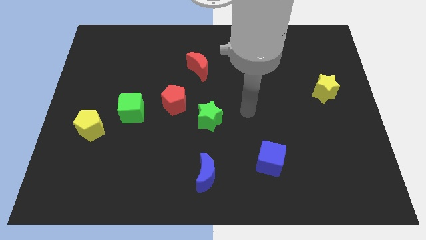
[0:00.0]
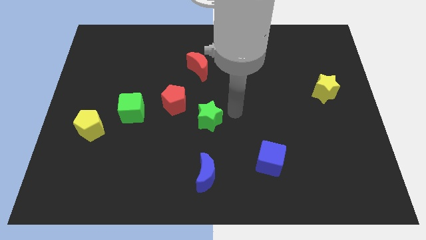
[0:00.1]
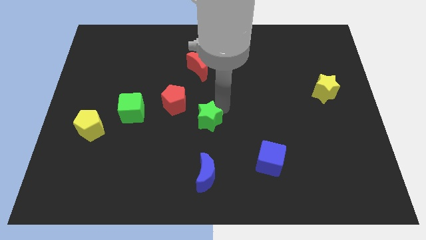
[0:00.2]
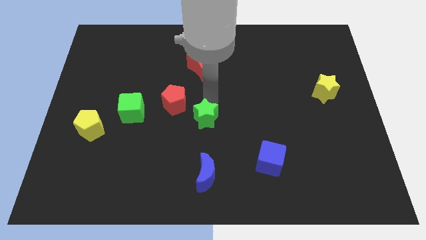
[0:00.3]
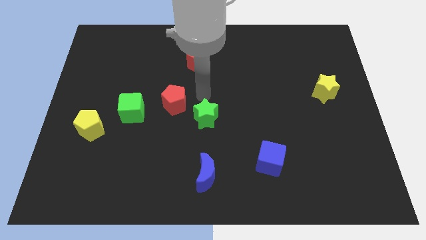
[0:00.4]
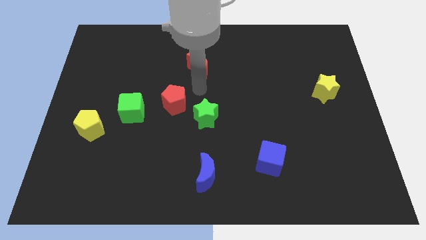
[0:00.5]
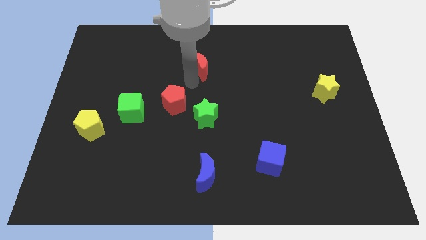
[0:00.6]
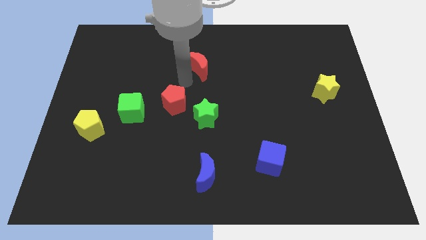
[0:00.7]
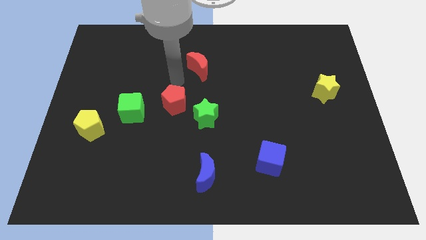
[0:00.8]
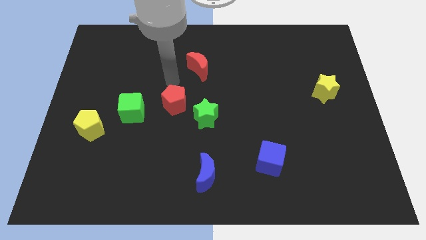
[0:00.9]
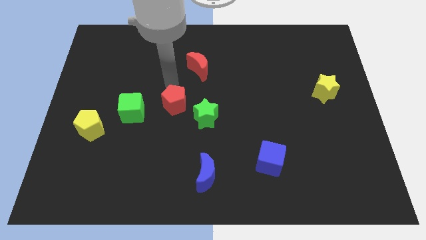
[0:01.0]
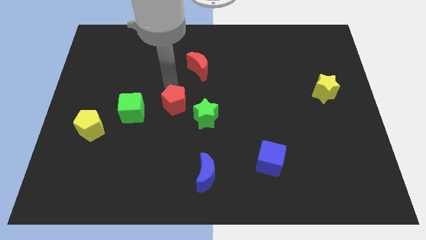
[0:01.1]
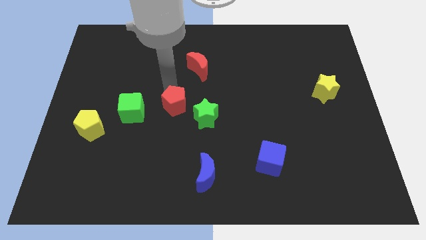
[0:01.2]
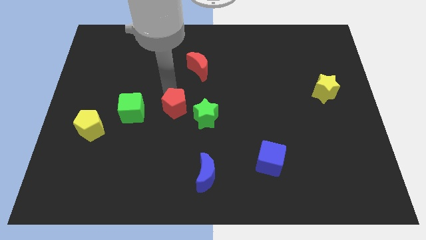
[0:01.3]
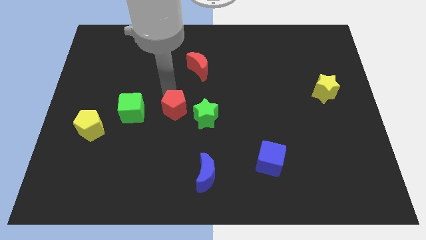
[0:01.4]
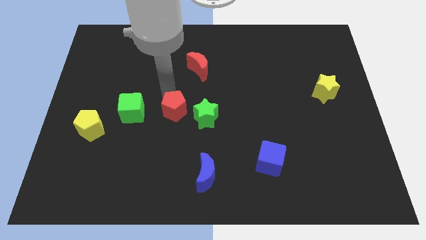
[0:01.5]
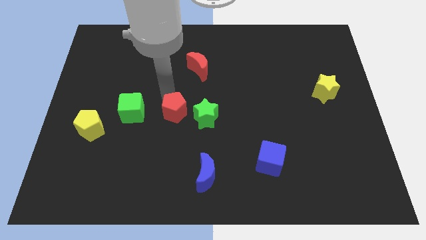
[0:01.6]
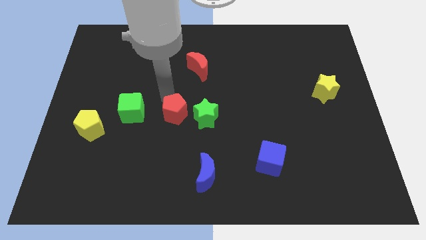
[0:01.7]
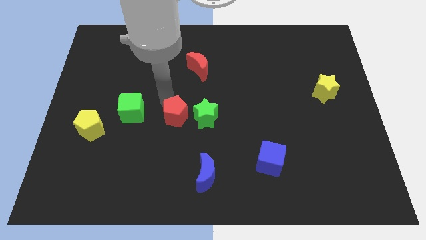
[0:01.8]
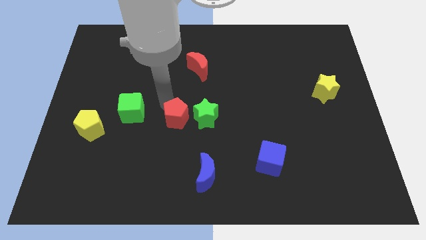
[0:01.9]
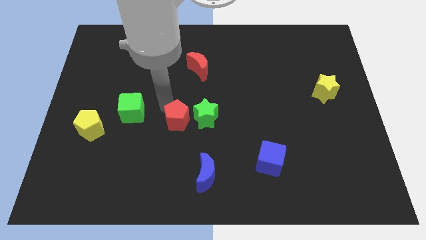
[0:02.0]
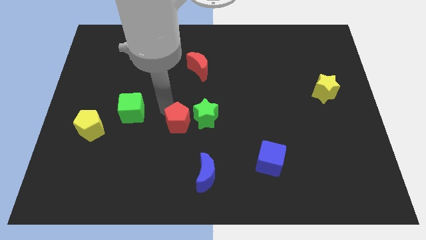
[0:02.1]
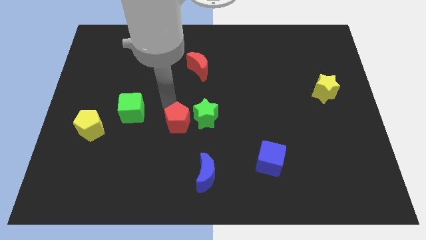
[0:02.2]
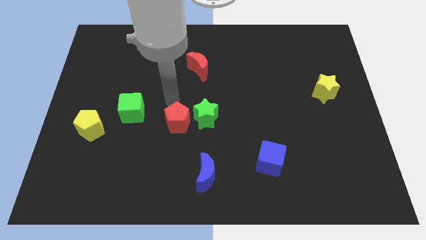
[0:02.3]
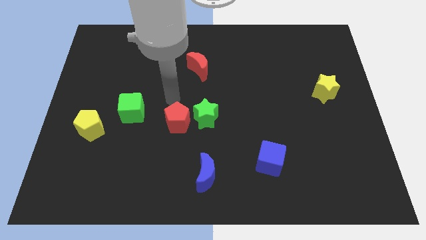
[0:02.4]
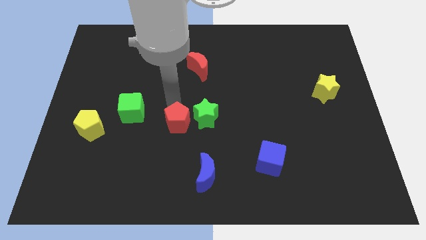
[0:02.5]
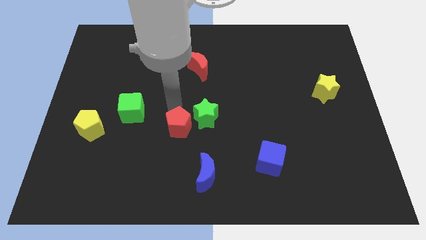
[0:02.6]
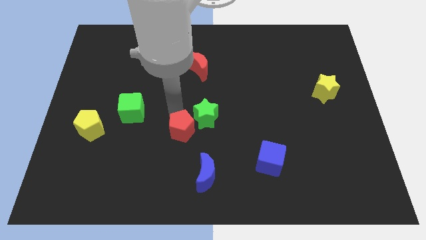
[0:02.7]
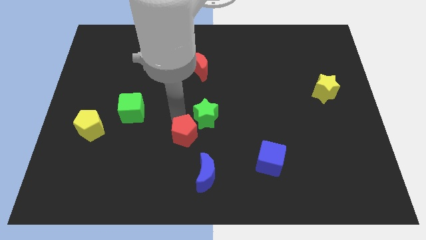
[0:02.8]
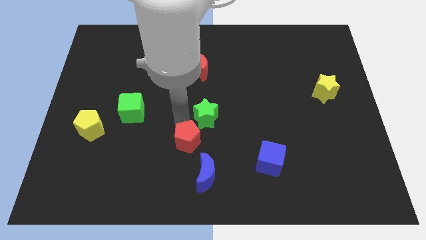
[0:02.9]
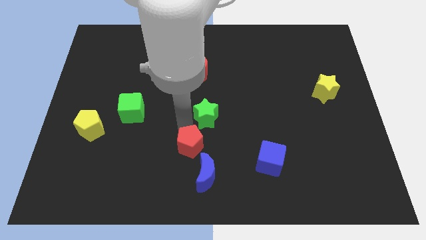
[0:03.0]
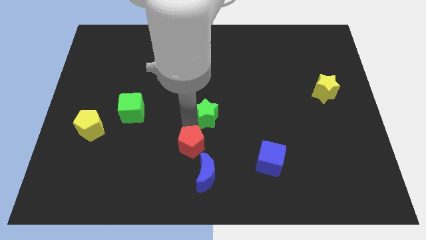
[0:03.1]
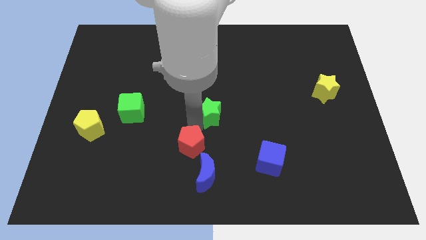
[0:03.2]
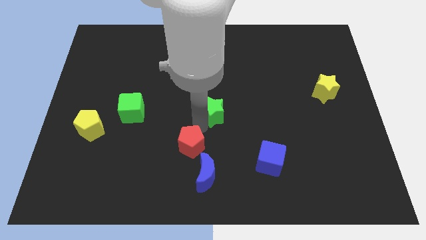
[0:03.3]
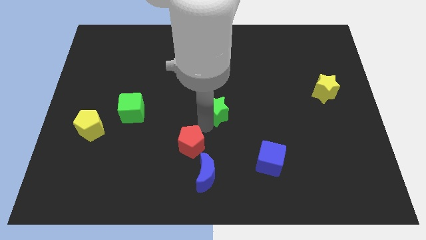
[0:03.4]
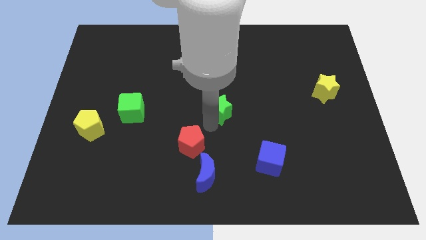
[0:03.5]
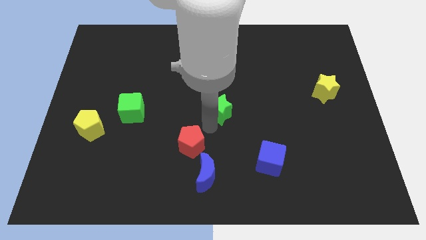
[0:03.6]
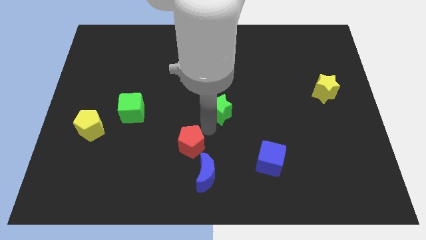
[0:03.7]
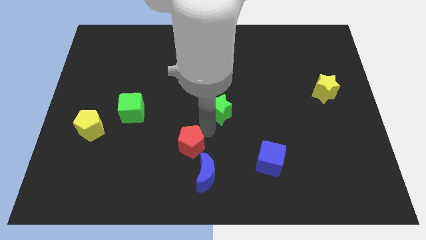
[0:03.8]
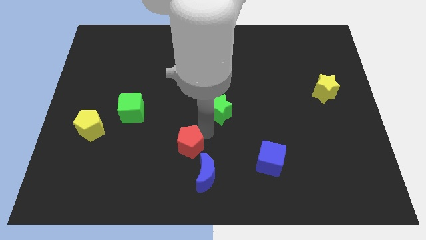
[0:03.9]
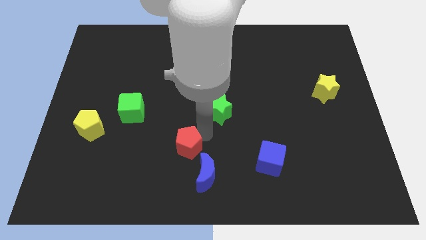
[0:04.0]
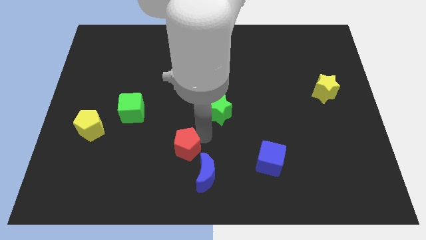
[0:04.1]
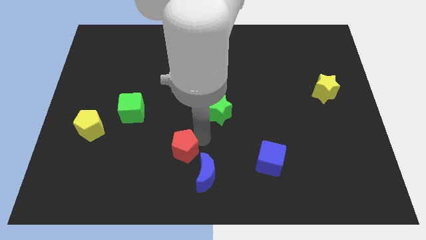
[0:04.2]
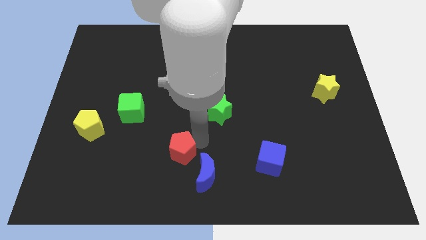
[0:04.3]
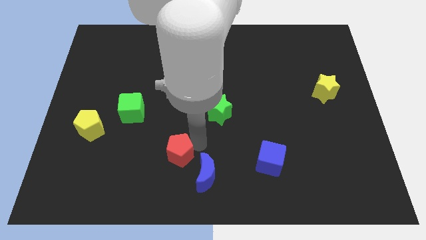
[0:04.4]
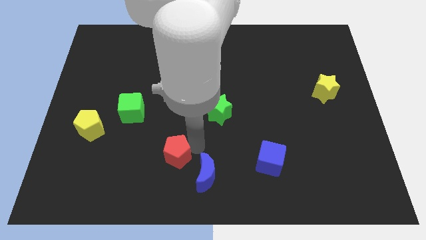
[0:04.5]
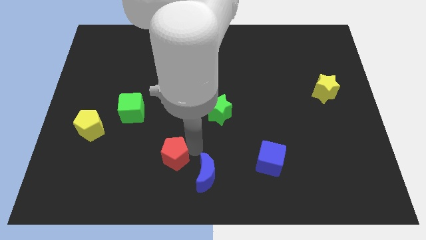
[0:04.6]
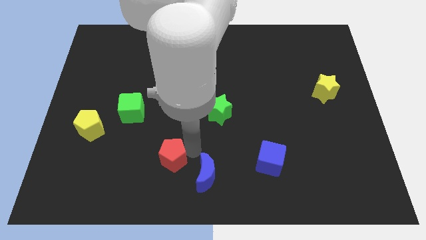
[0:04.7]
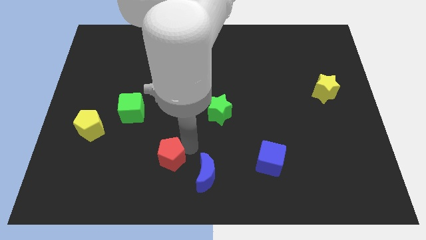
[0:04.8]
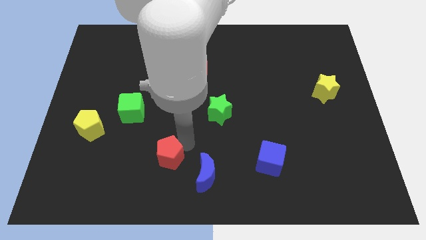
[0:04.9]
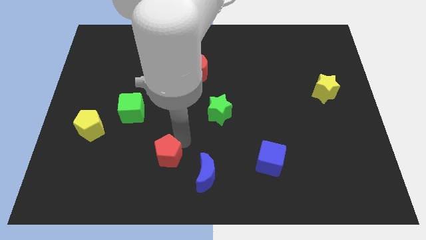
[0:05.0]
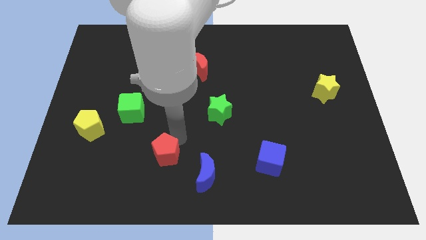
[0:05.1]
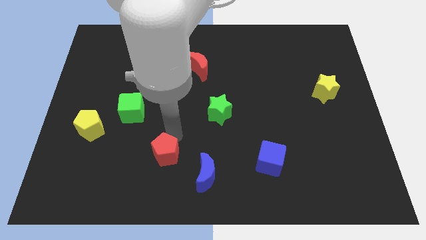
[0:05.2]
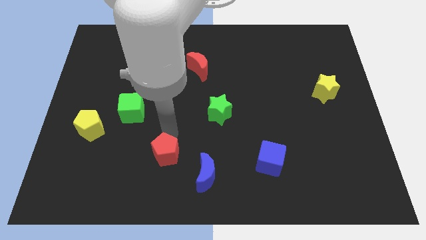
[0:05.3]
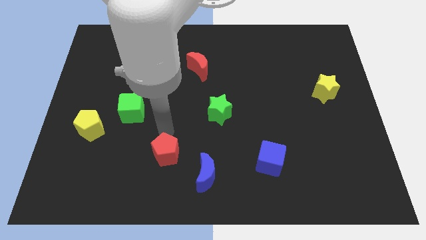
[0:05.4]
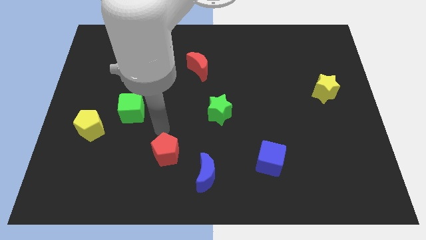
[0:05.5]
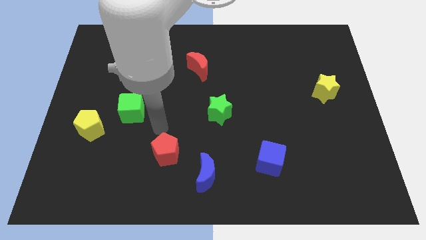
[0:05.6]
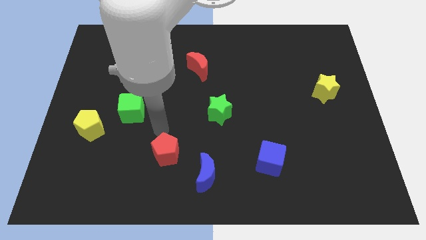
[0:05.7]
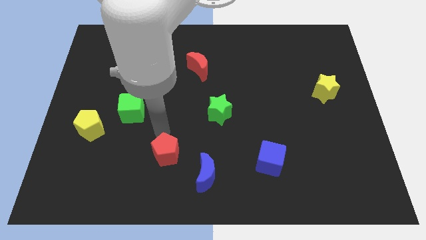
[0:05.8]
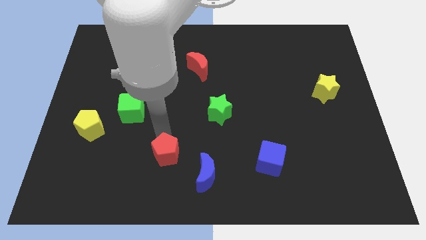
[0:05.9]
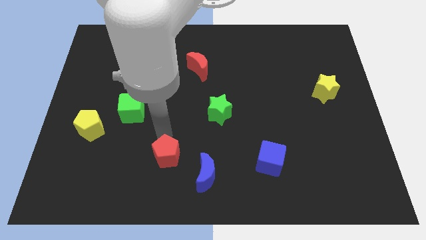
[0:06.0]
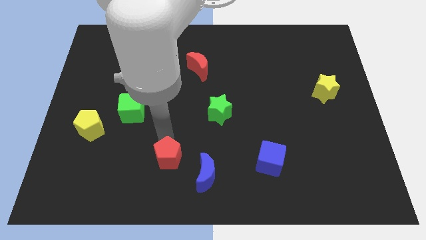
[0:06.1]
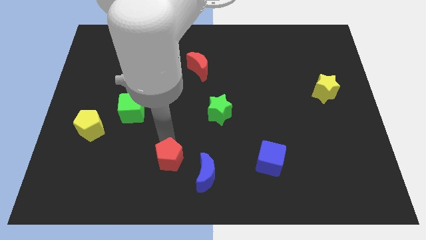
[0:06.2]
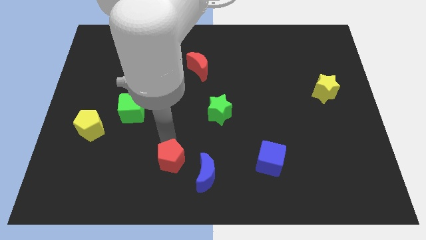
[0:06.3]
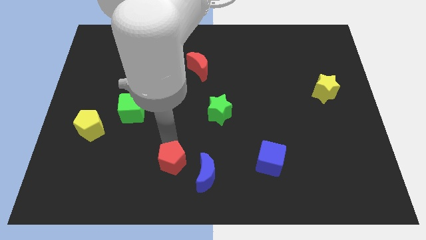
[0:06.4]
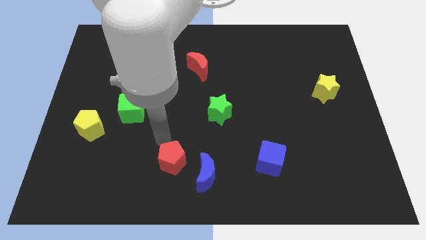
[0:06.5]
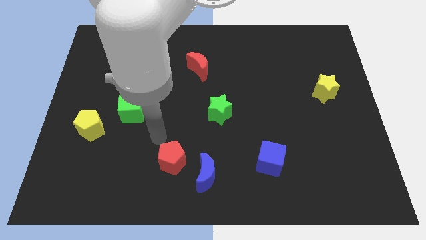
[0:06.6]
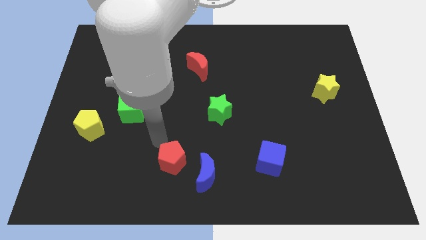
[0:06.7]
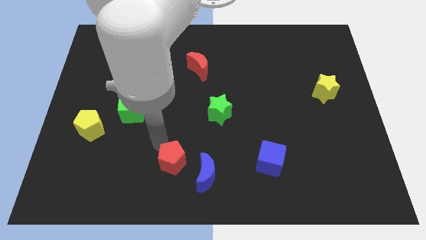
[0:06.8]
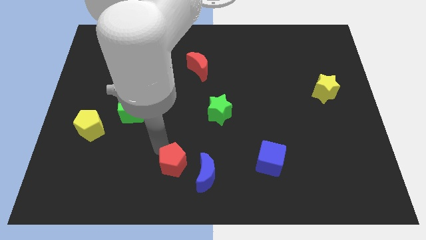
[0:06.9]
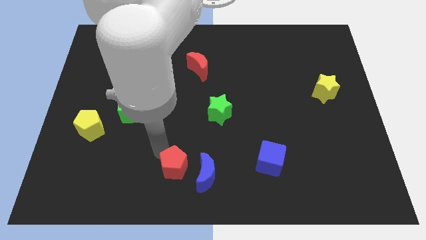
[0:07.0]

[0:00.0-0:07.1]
push the red pentagon to the bottom side
